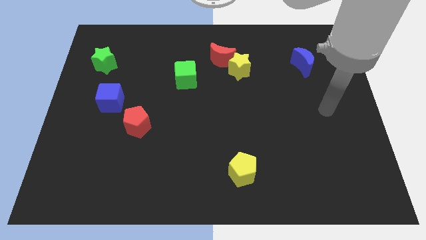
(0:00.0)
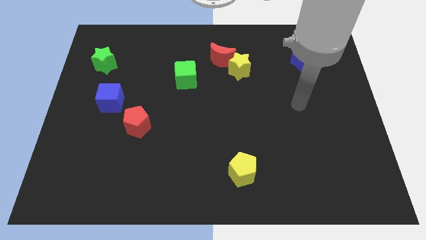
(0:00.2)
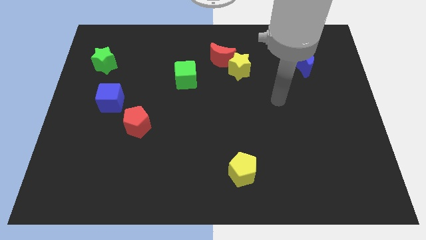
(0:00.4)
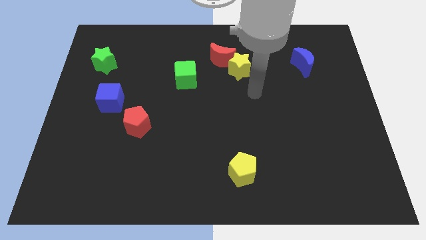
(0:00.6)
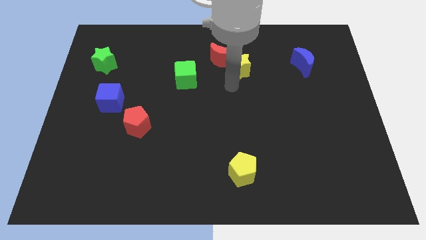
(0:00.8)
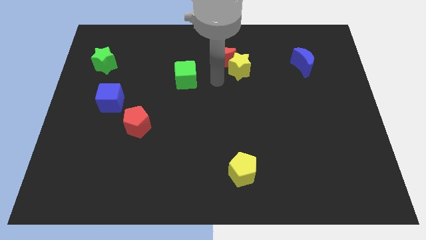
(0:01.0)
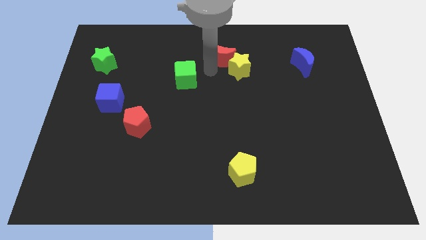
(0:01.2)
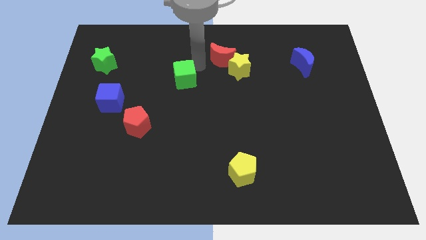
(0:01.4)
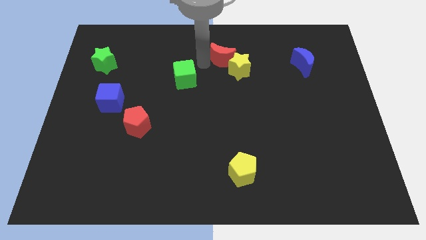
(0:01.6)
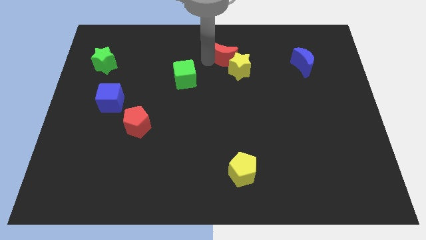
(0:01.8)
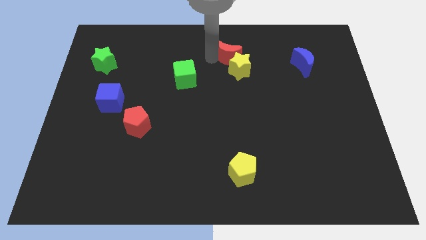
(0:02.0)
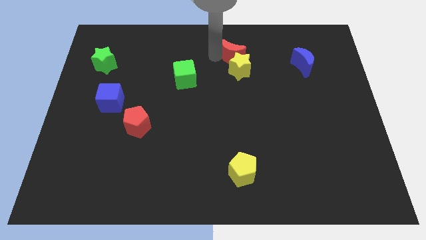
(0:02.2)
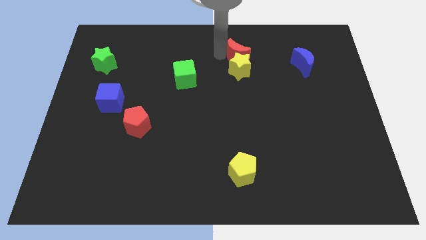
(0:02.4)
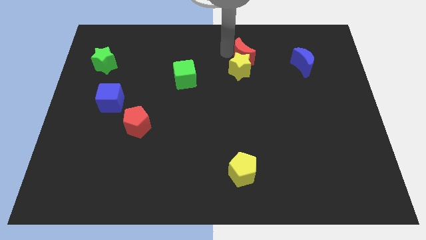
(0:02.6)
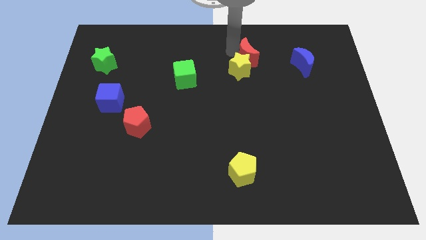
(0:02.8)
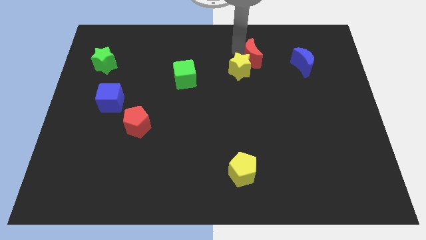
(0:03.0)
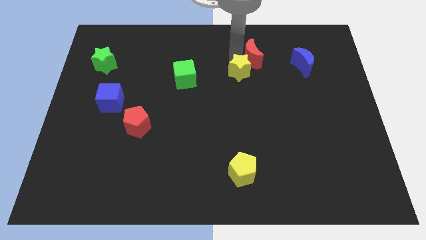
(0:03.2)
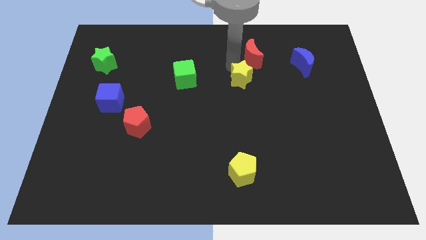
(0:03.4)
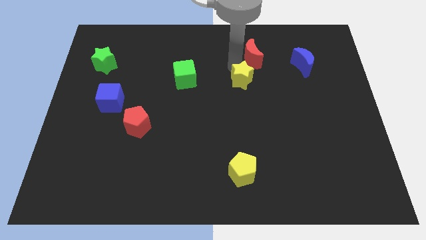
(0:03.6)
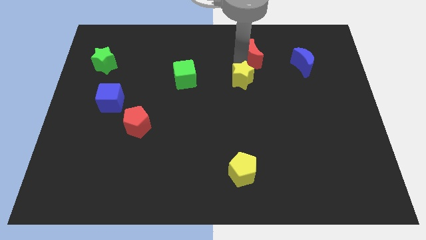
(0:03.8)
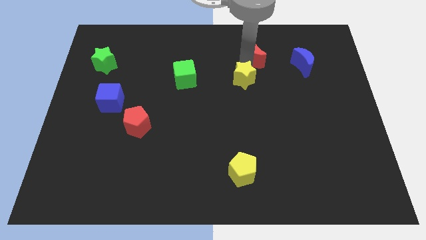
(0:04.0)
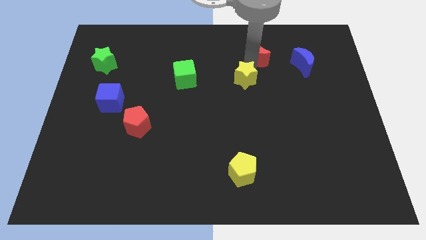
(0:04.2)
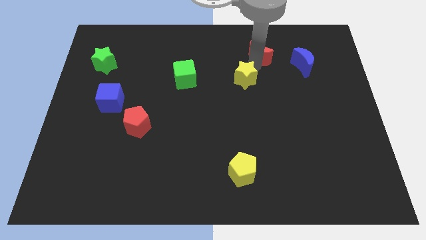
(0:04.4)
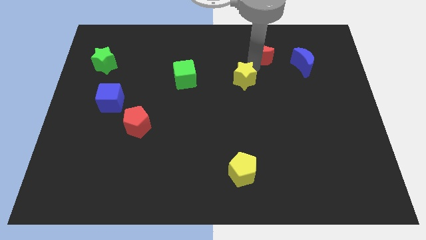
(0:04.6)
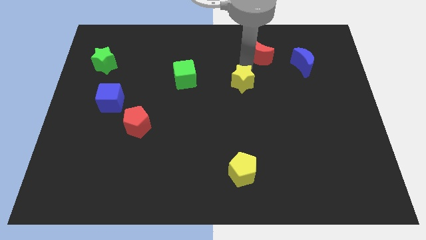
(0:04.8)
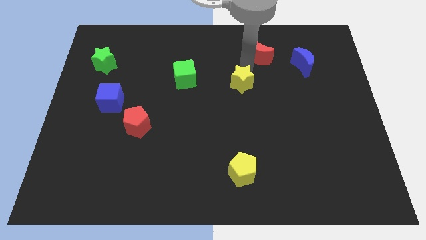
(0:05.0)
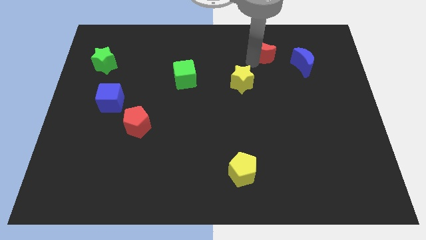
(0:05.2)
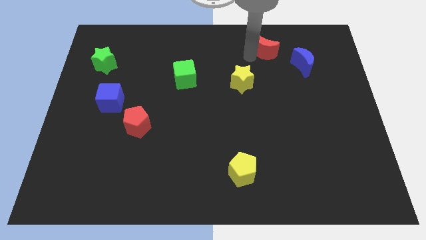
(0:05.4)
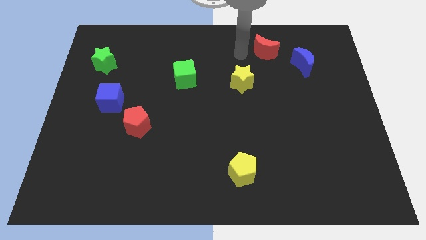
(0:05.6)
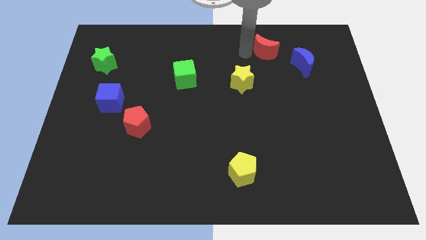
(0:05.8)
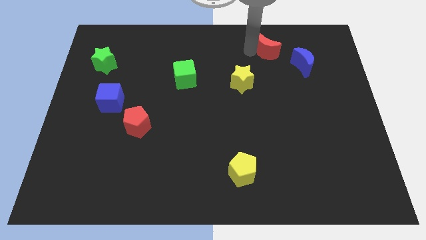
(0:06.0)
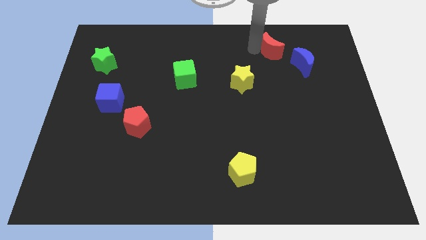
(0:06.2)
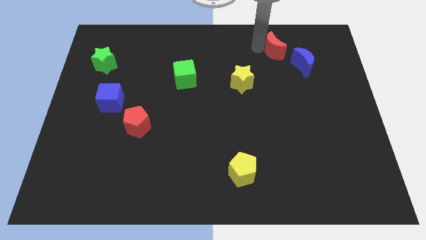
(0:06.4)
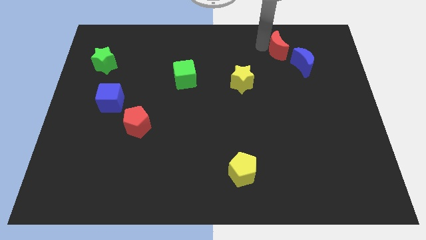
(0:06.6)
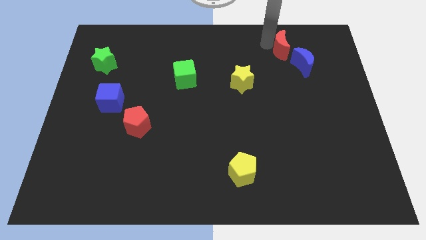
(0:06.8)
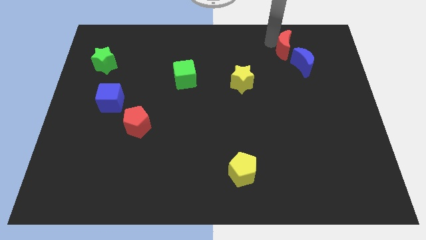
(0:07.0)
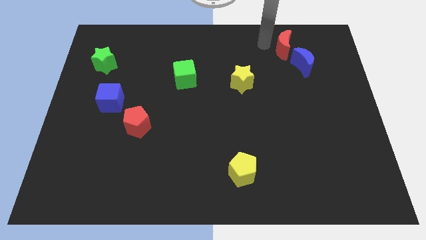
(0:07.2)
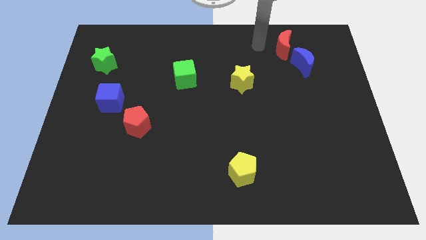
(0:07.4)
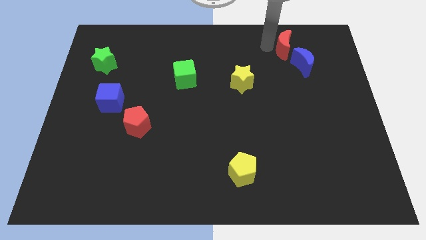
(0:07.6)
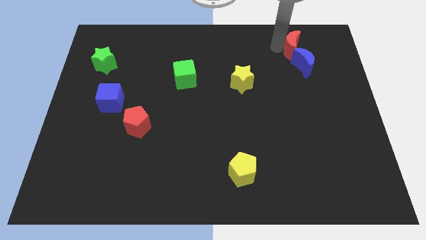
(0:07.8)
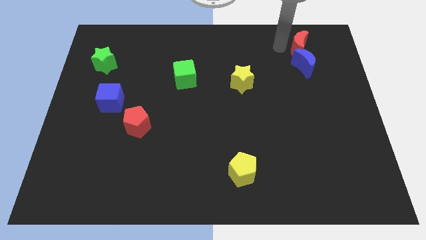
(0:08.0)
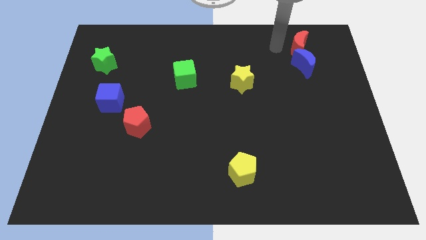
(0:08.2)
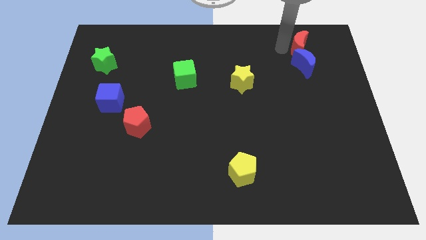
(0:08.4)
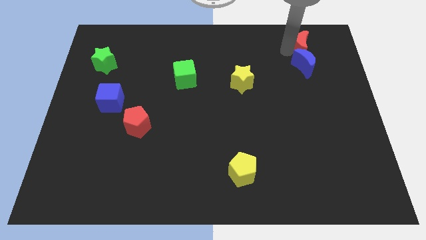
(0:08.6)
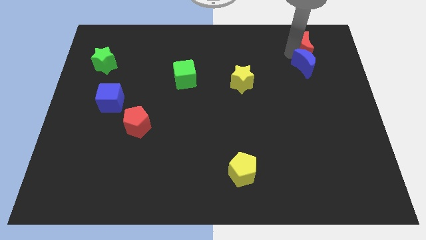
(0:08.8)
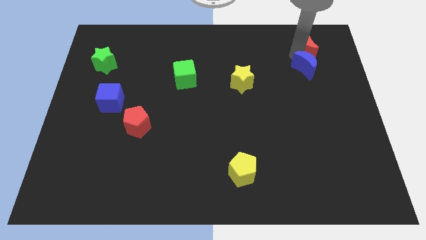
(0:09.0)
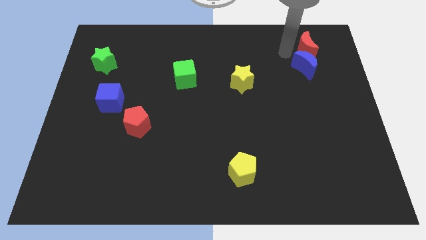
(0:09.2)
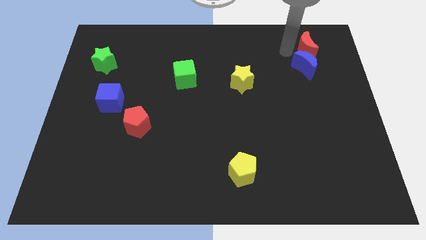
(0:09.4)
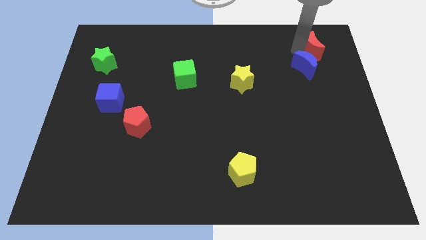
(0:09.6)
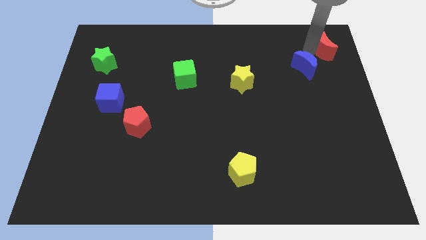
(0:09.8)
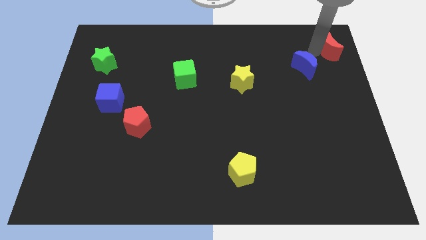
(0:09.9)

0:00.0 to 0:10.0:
slide the red moon to the top right corner

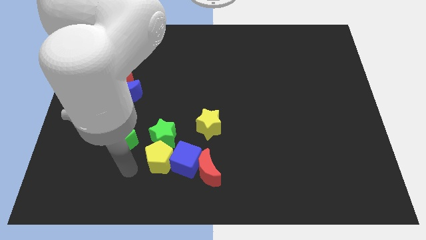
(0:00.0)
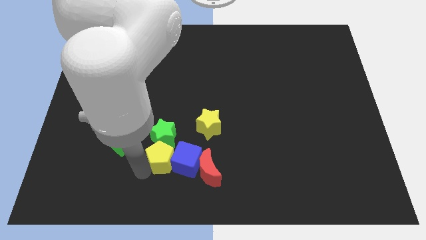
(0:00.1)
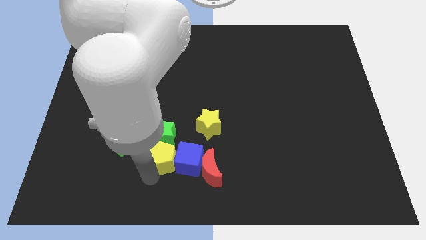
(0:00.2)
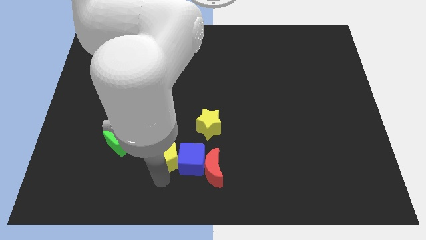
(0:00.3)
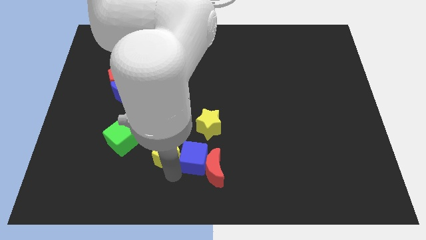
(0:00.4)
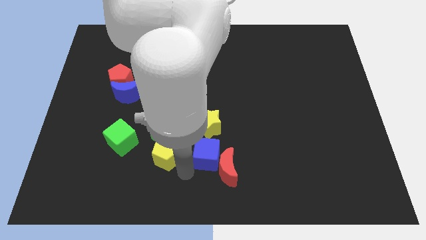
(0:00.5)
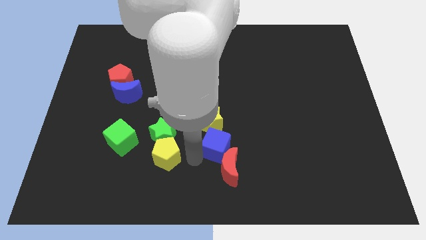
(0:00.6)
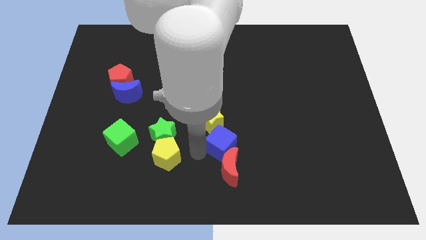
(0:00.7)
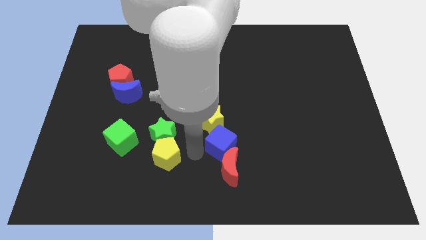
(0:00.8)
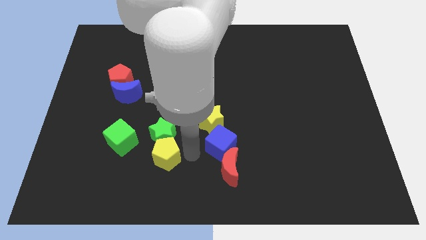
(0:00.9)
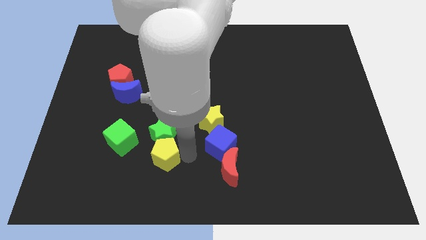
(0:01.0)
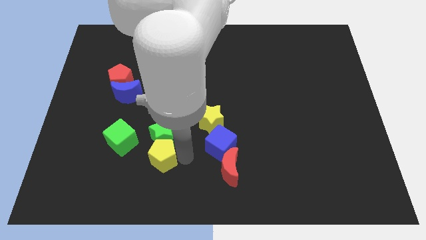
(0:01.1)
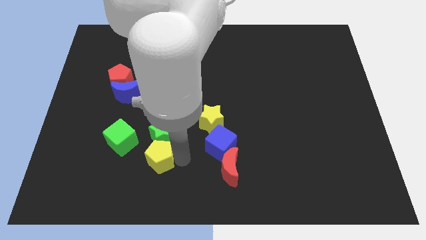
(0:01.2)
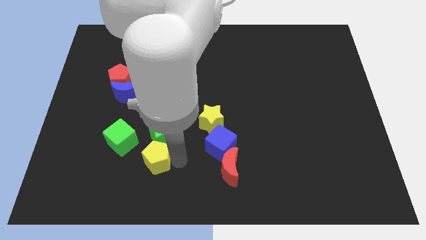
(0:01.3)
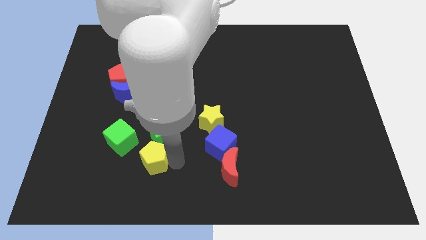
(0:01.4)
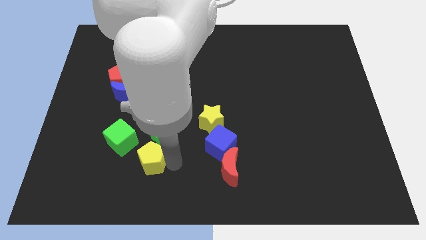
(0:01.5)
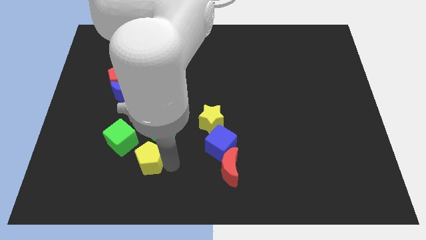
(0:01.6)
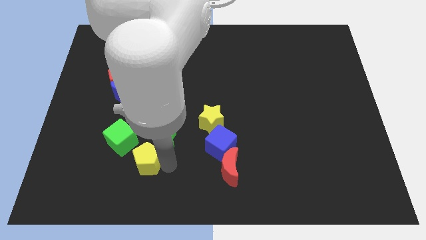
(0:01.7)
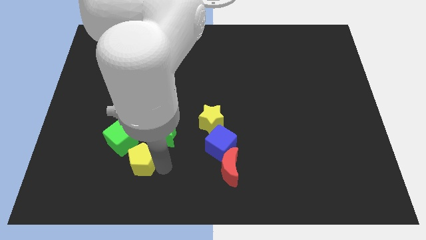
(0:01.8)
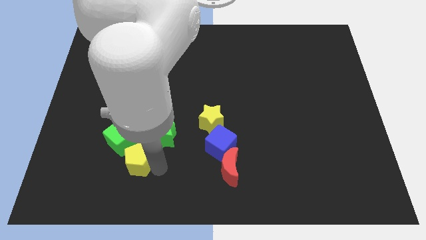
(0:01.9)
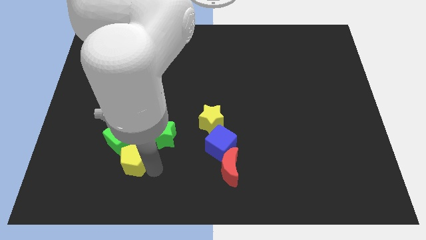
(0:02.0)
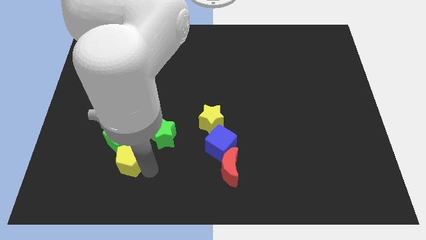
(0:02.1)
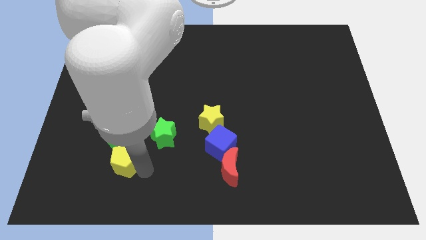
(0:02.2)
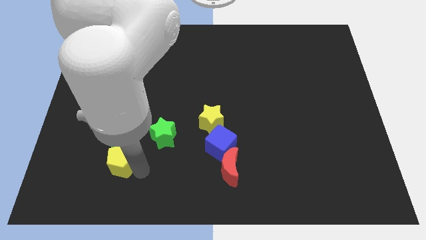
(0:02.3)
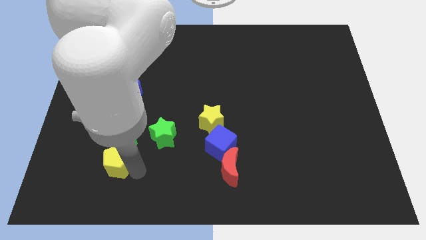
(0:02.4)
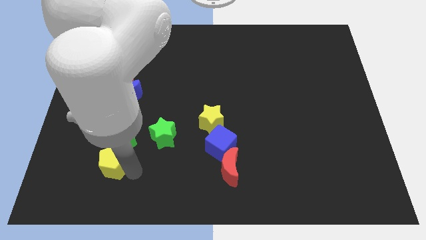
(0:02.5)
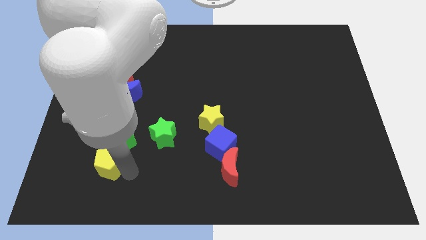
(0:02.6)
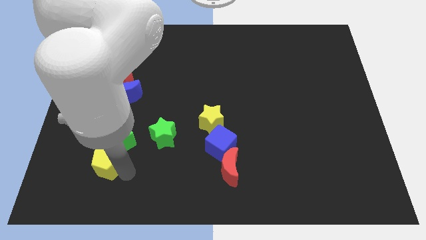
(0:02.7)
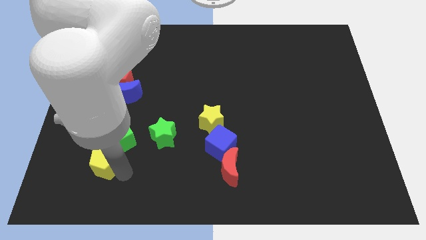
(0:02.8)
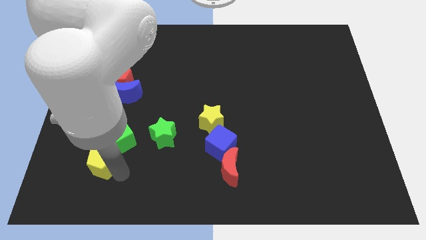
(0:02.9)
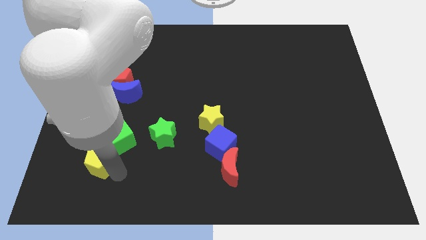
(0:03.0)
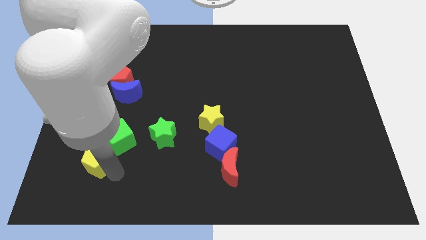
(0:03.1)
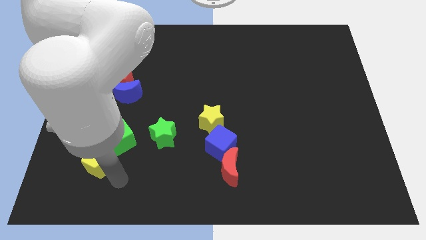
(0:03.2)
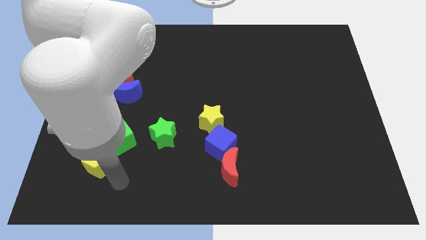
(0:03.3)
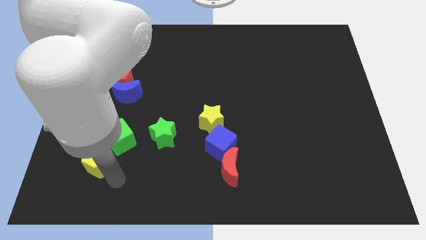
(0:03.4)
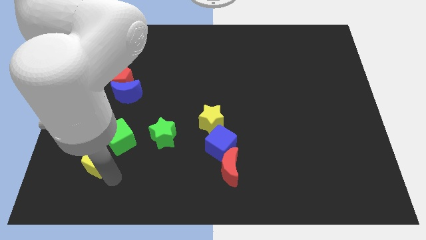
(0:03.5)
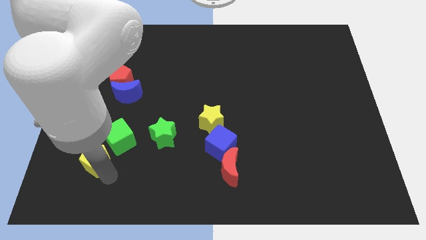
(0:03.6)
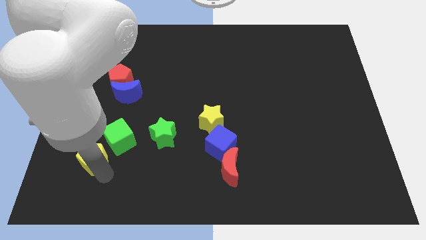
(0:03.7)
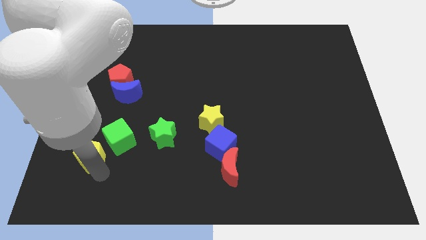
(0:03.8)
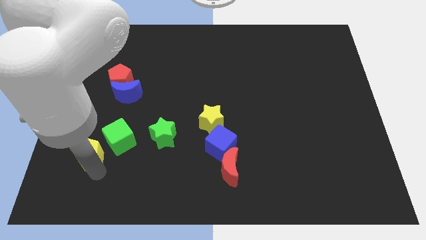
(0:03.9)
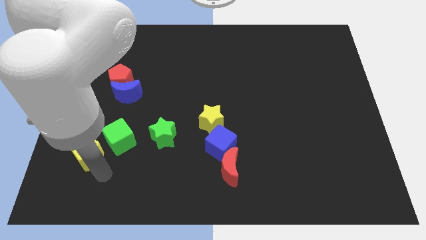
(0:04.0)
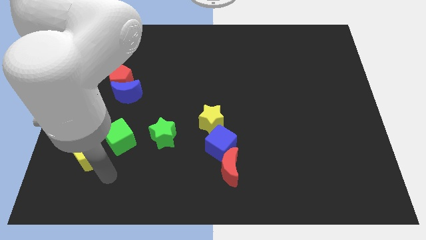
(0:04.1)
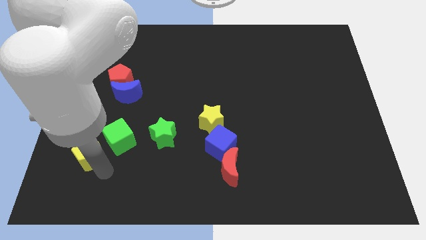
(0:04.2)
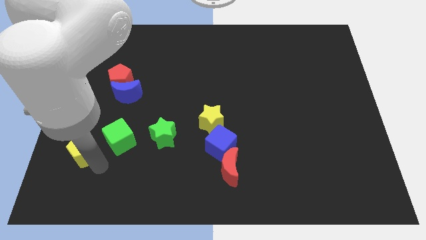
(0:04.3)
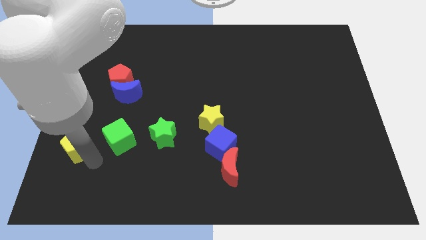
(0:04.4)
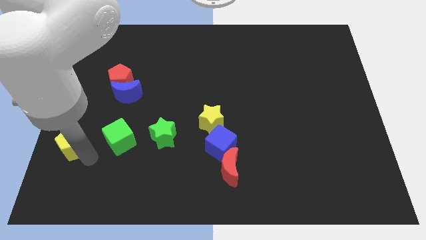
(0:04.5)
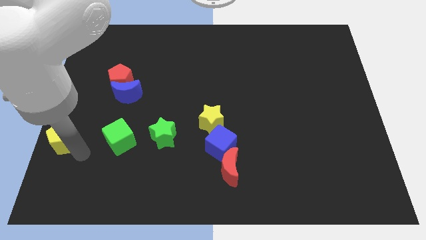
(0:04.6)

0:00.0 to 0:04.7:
slide the yellow pentagon to the left side of the board
